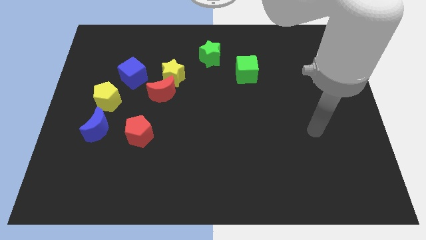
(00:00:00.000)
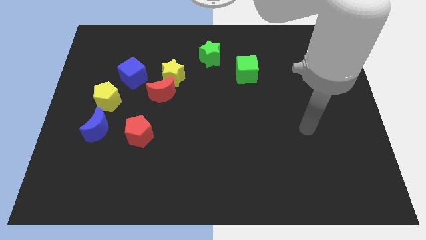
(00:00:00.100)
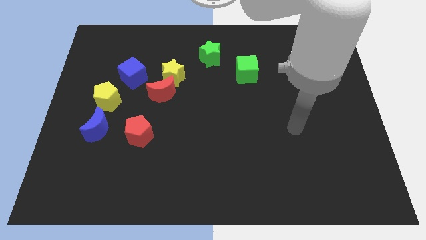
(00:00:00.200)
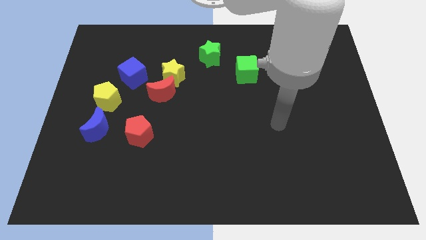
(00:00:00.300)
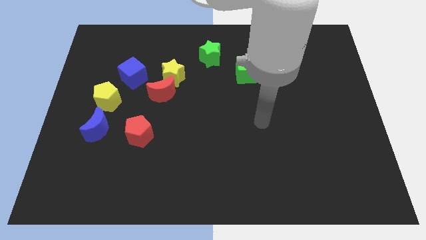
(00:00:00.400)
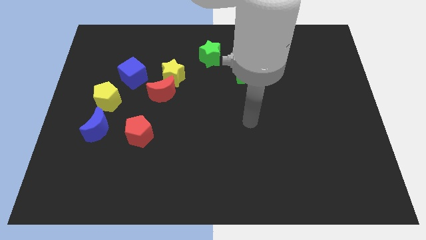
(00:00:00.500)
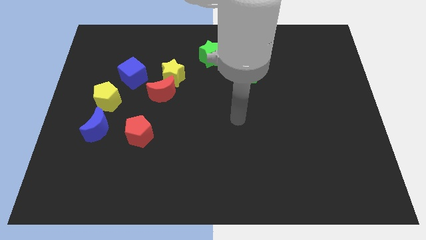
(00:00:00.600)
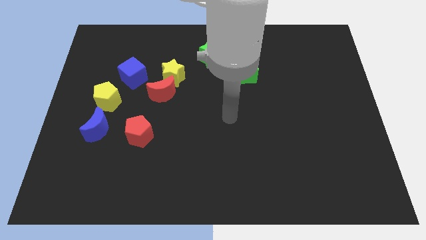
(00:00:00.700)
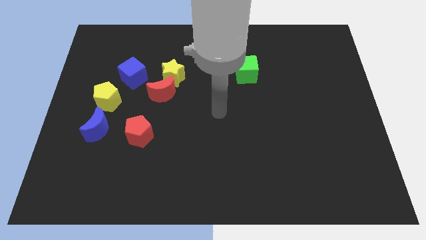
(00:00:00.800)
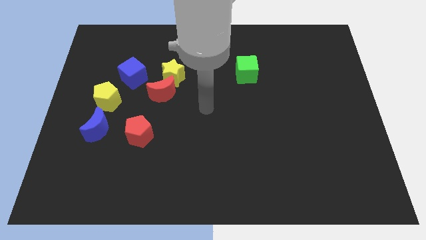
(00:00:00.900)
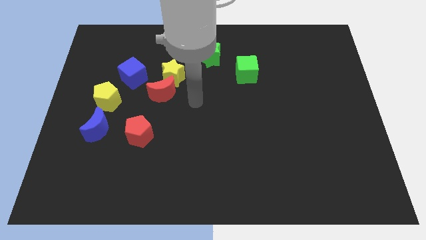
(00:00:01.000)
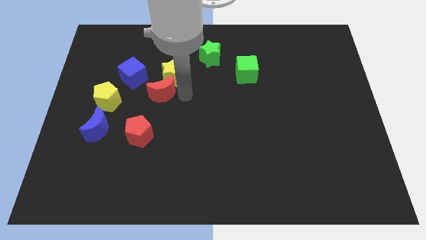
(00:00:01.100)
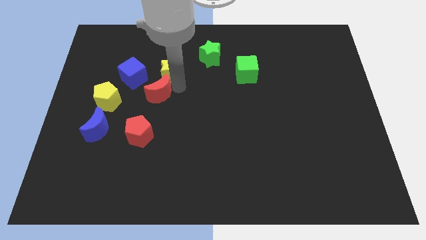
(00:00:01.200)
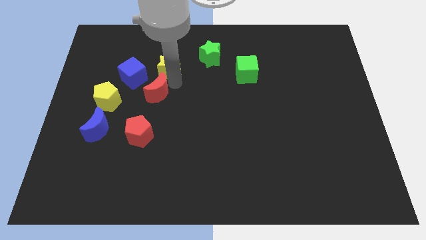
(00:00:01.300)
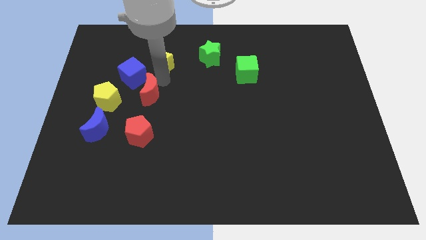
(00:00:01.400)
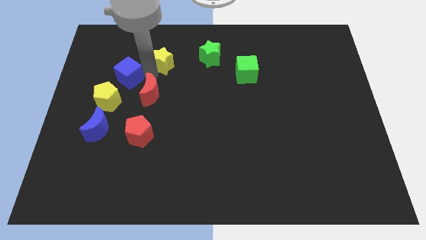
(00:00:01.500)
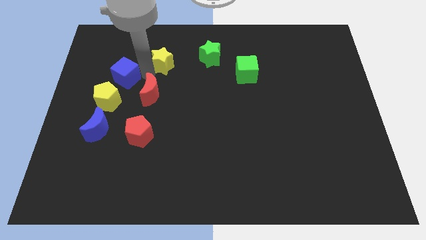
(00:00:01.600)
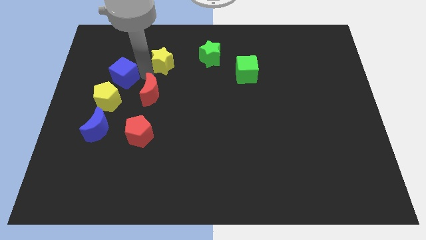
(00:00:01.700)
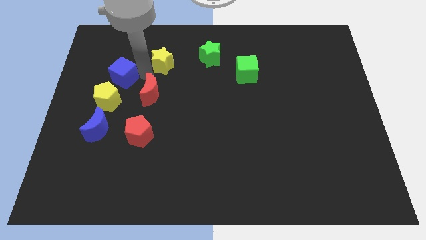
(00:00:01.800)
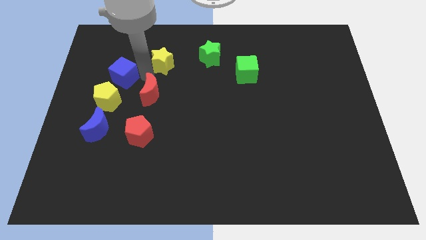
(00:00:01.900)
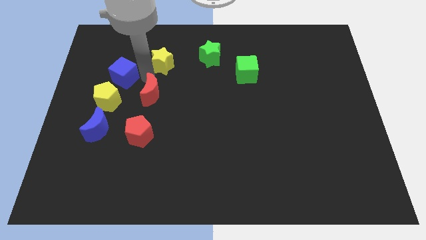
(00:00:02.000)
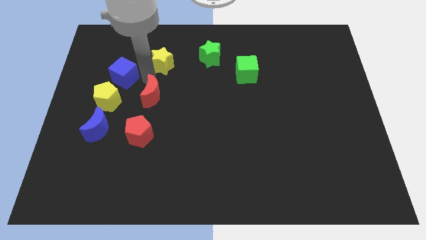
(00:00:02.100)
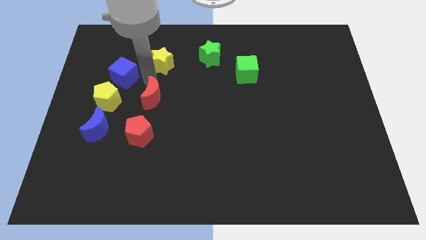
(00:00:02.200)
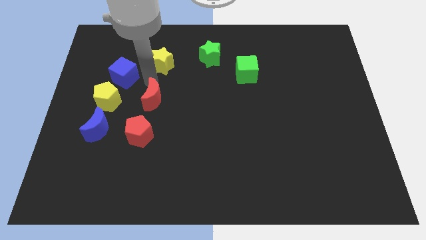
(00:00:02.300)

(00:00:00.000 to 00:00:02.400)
move the red moon away from the yellow star and blue cube

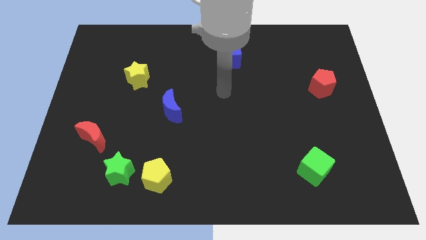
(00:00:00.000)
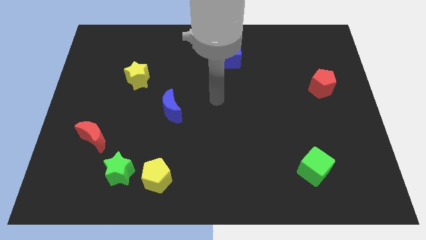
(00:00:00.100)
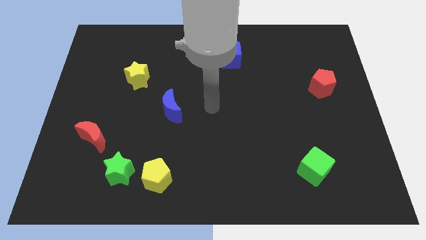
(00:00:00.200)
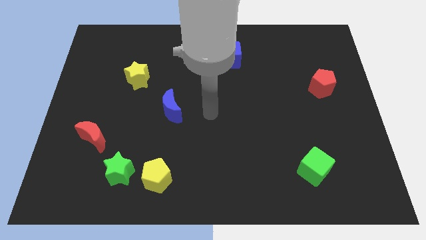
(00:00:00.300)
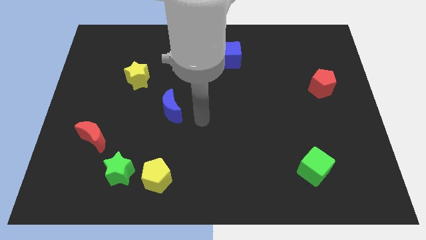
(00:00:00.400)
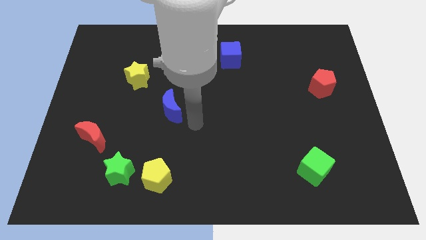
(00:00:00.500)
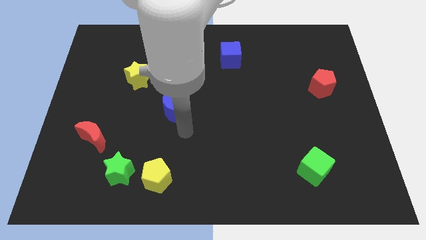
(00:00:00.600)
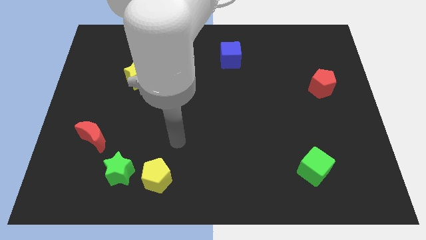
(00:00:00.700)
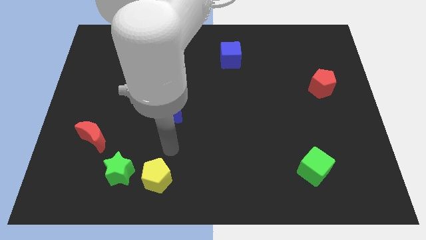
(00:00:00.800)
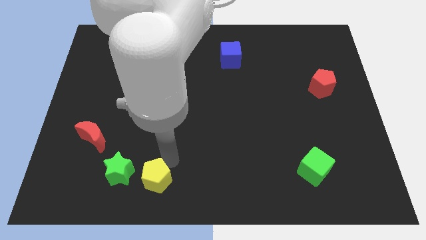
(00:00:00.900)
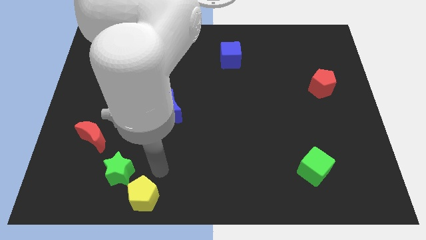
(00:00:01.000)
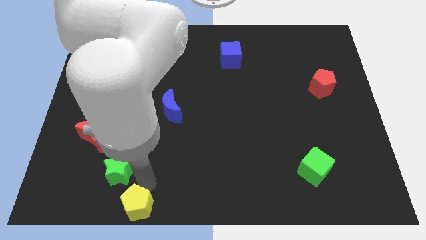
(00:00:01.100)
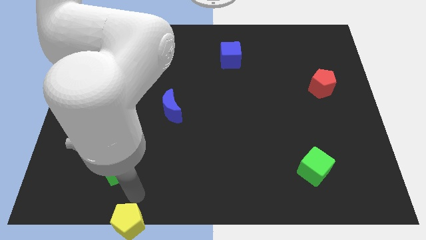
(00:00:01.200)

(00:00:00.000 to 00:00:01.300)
pull the green star apart from the yellow pentagon

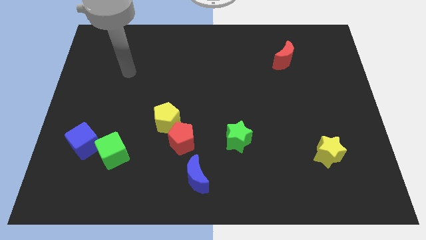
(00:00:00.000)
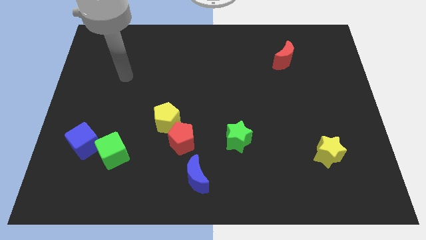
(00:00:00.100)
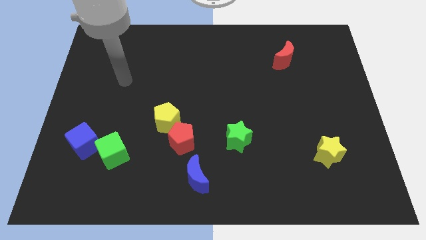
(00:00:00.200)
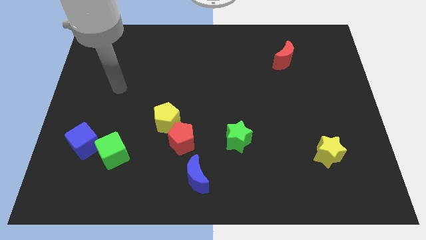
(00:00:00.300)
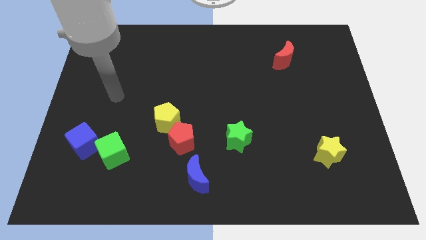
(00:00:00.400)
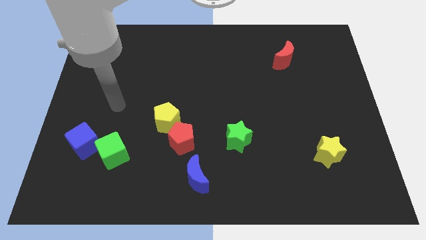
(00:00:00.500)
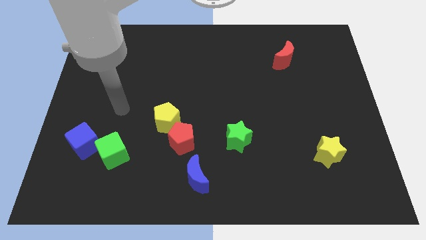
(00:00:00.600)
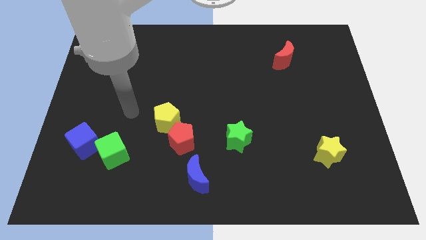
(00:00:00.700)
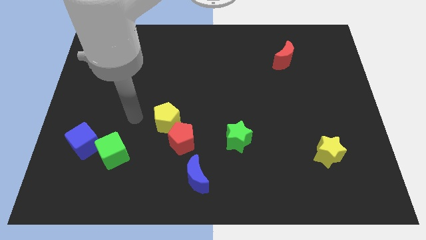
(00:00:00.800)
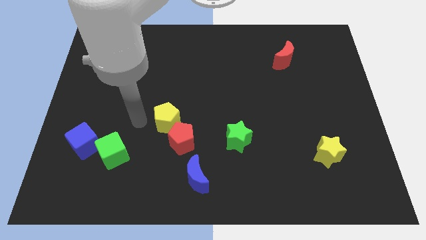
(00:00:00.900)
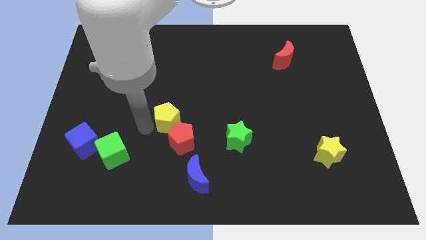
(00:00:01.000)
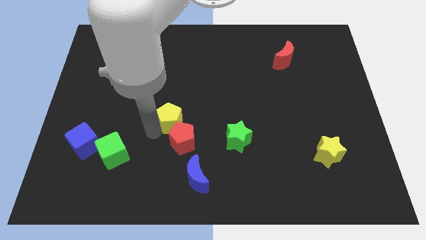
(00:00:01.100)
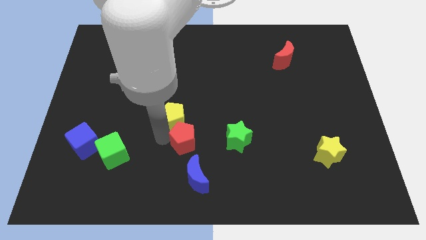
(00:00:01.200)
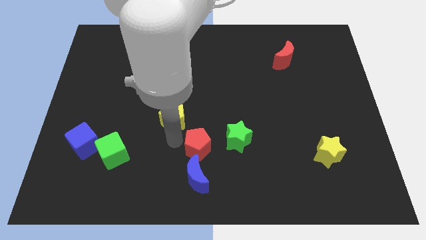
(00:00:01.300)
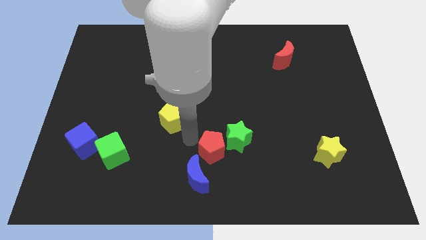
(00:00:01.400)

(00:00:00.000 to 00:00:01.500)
pull the yellow pentagon apart from the red pentagon

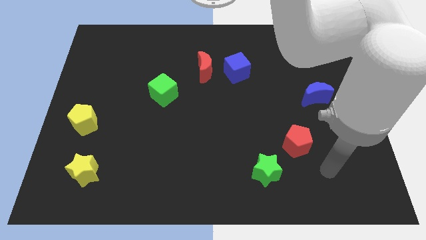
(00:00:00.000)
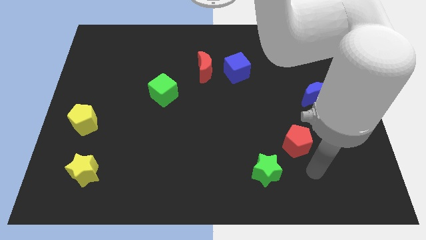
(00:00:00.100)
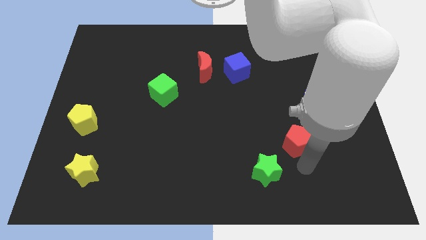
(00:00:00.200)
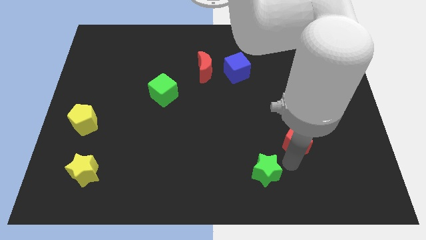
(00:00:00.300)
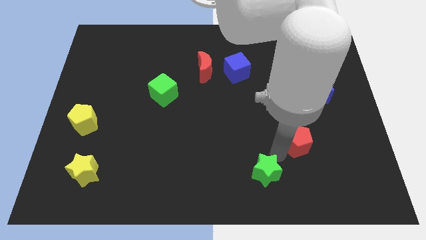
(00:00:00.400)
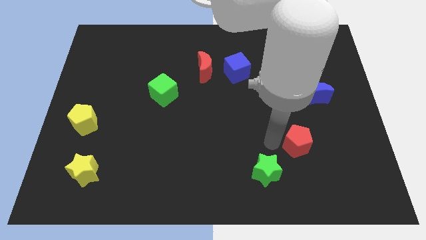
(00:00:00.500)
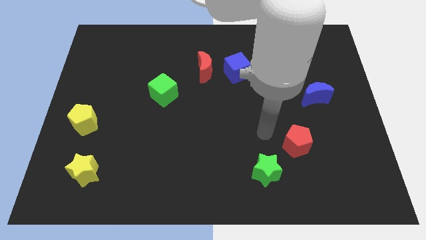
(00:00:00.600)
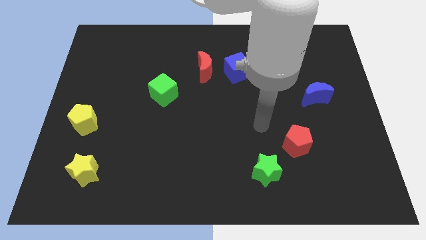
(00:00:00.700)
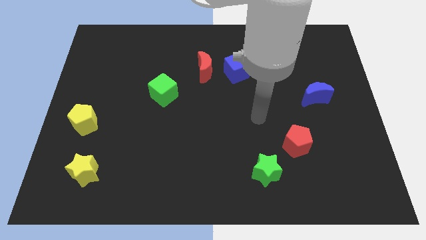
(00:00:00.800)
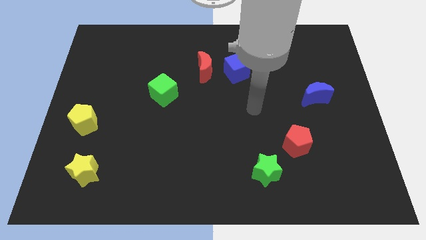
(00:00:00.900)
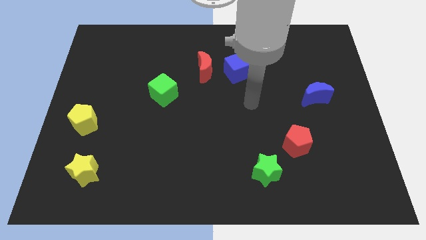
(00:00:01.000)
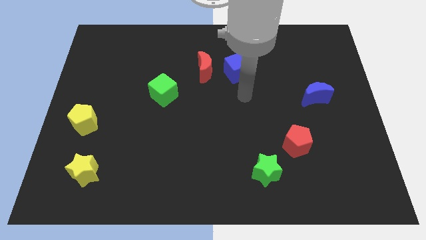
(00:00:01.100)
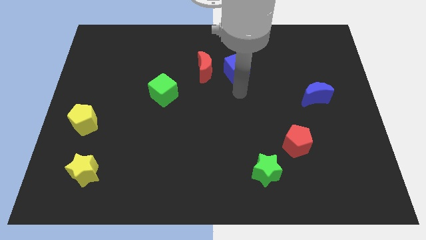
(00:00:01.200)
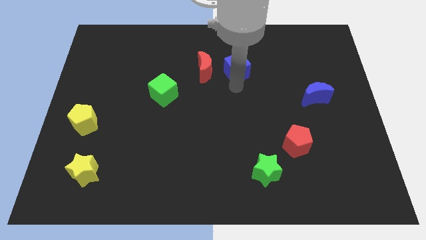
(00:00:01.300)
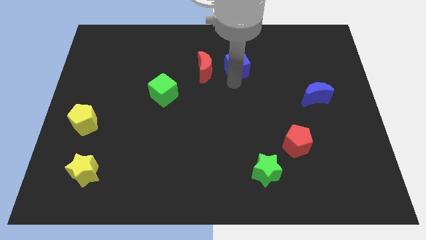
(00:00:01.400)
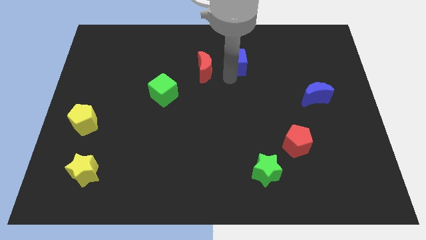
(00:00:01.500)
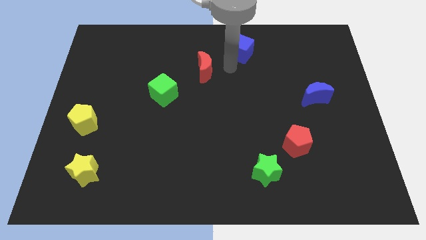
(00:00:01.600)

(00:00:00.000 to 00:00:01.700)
move the red moon away from the blue cube

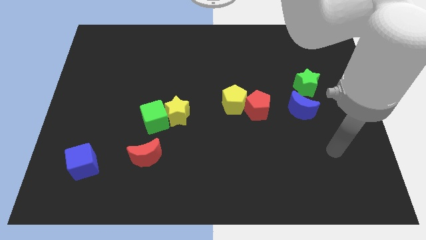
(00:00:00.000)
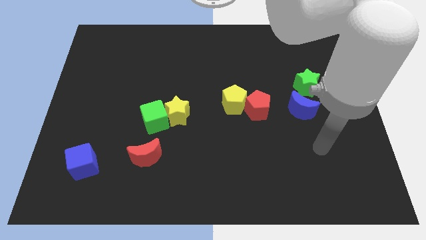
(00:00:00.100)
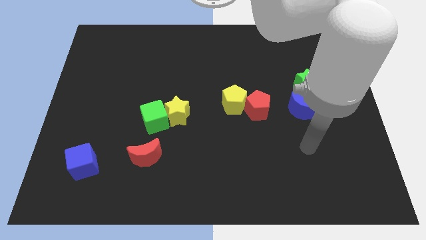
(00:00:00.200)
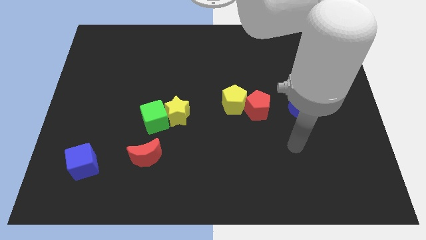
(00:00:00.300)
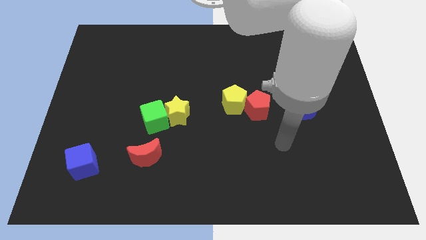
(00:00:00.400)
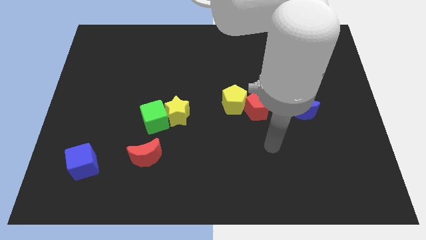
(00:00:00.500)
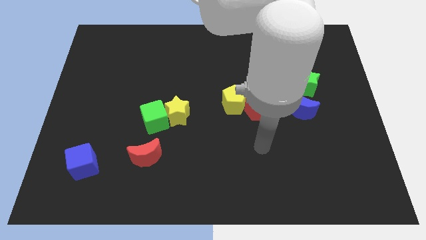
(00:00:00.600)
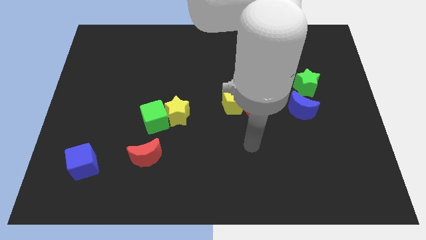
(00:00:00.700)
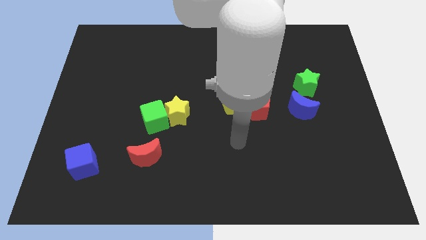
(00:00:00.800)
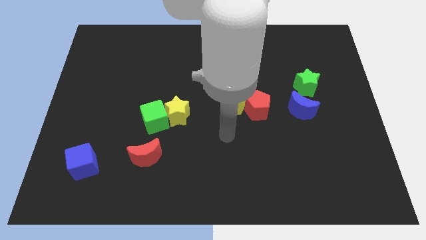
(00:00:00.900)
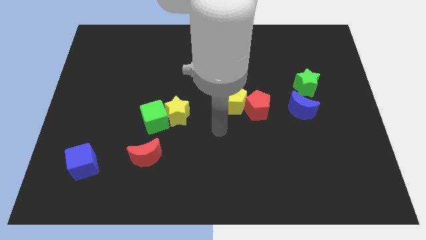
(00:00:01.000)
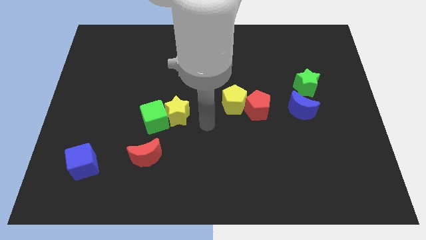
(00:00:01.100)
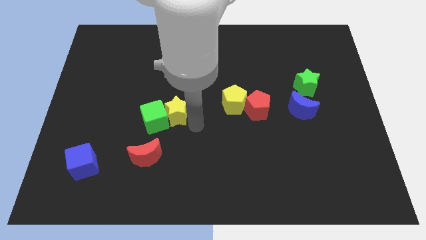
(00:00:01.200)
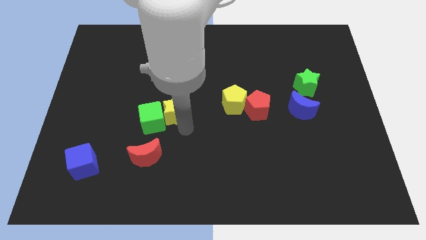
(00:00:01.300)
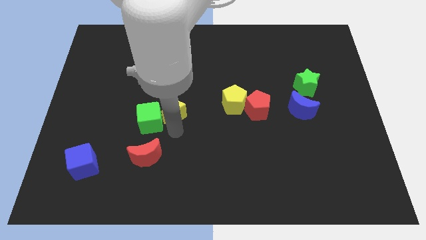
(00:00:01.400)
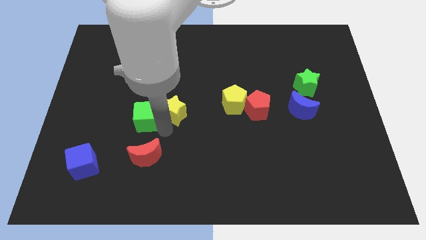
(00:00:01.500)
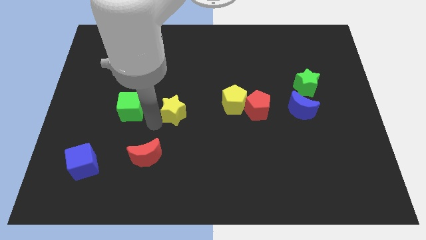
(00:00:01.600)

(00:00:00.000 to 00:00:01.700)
move the yellow star away from the green cube

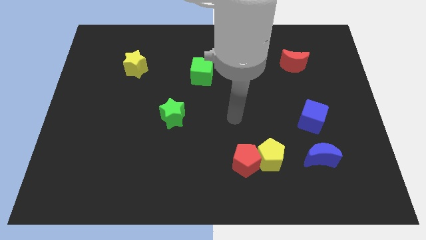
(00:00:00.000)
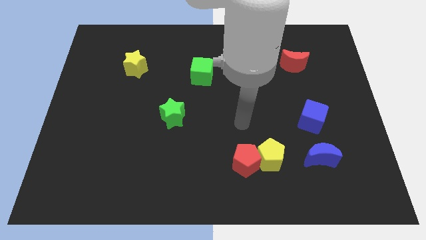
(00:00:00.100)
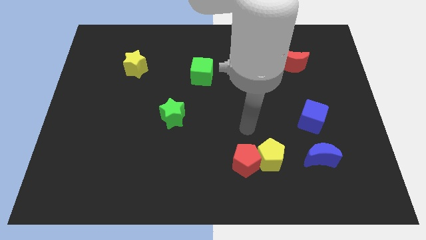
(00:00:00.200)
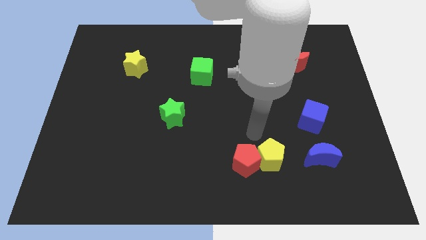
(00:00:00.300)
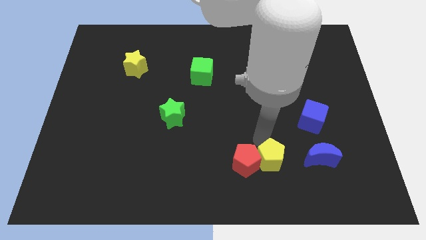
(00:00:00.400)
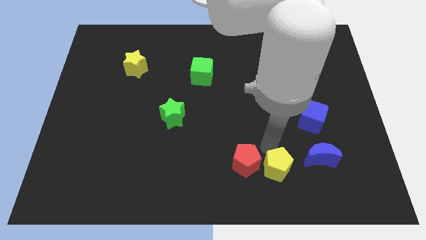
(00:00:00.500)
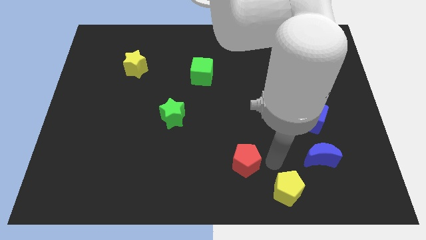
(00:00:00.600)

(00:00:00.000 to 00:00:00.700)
pull the red pentagon apart from the yellow pentagon
